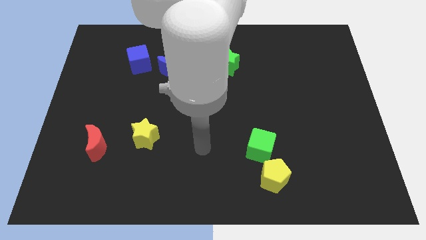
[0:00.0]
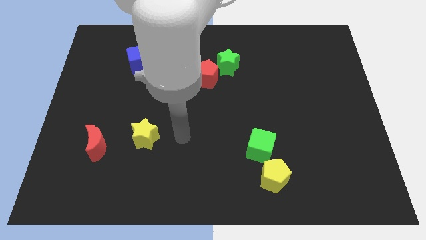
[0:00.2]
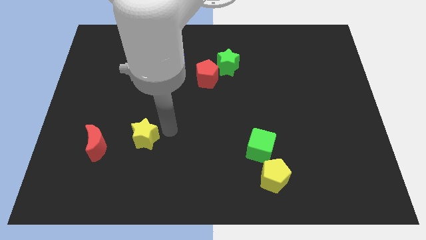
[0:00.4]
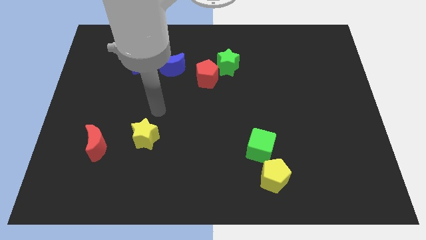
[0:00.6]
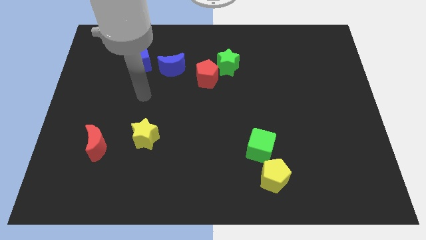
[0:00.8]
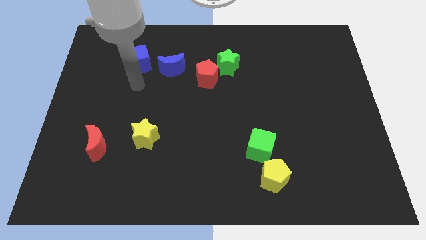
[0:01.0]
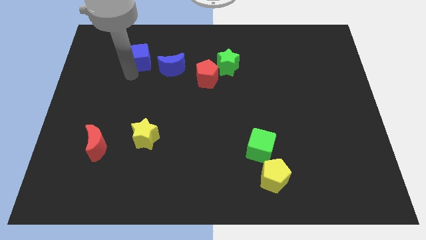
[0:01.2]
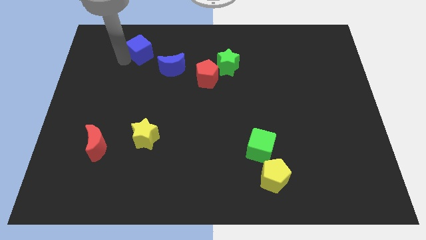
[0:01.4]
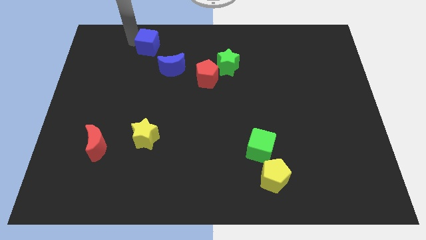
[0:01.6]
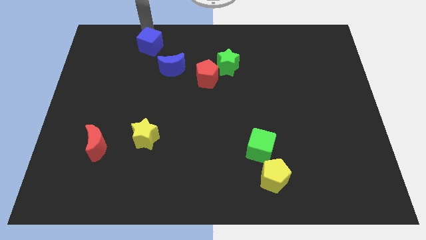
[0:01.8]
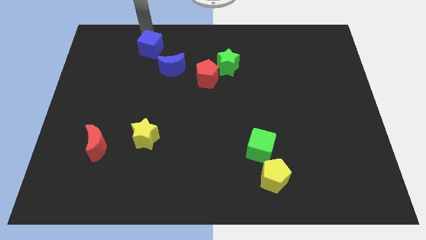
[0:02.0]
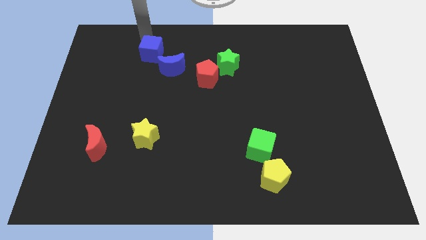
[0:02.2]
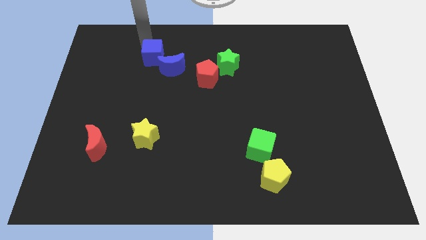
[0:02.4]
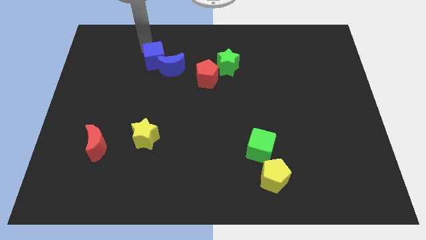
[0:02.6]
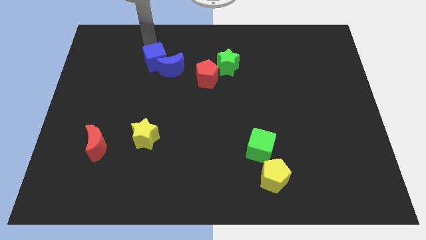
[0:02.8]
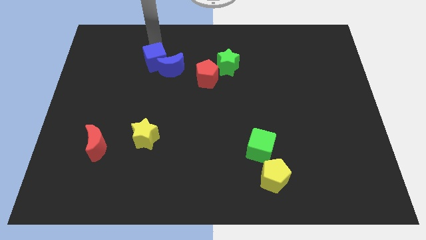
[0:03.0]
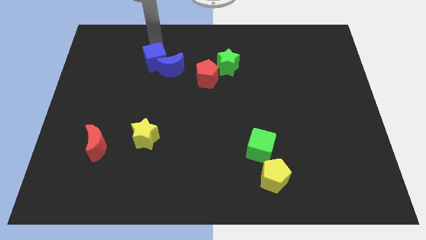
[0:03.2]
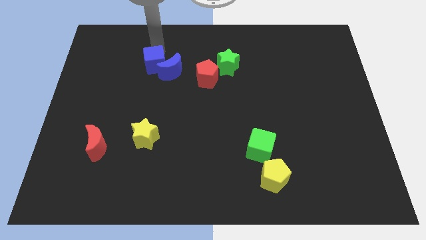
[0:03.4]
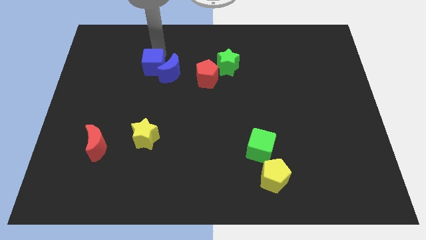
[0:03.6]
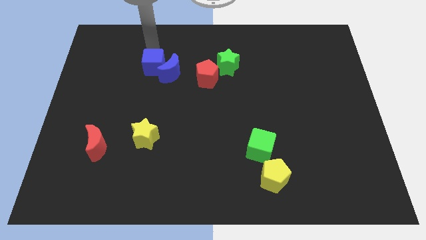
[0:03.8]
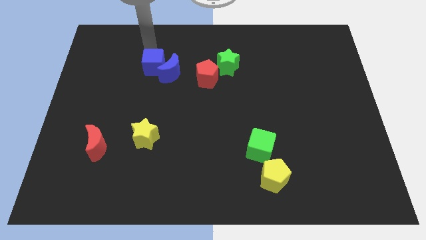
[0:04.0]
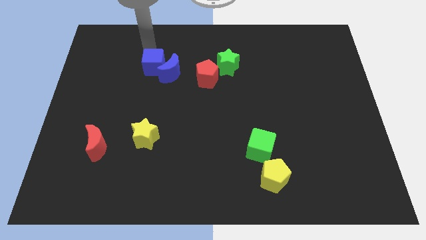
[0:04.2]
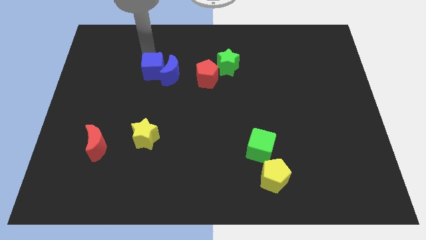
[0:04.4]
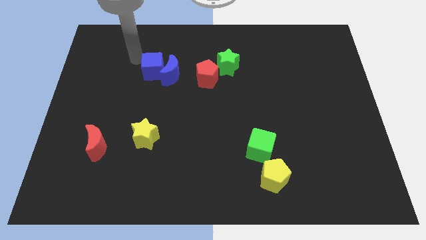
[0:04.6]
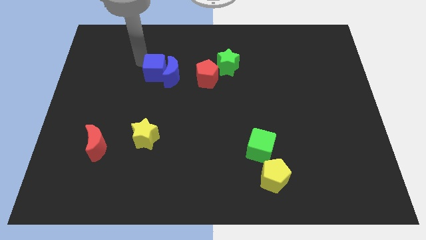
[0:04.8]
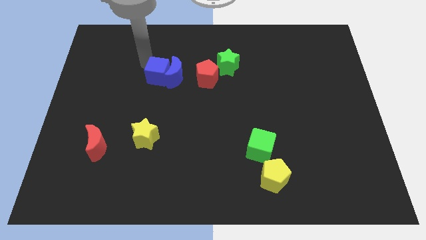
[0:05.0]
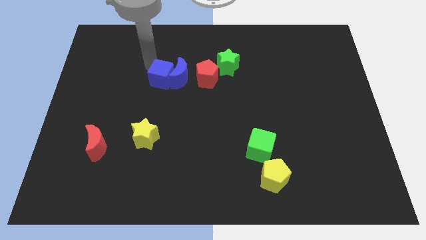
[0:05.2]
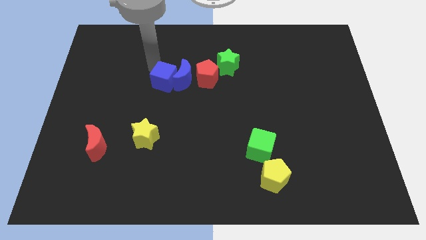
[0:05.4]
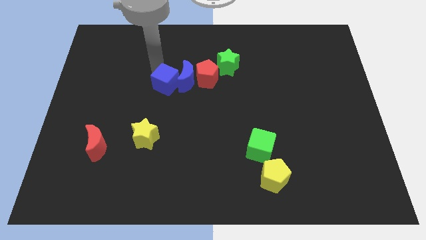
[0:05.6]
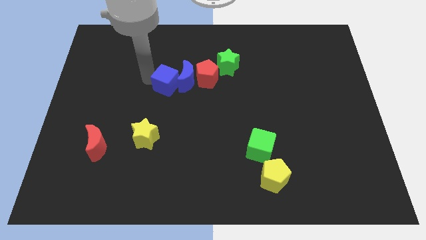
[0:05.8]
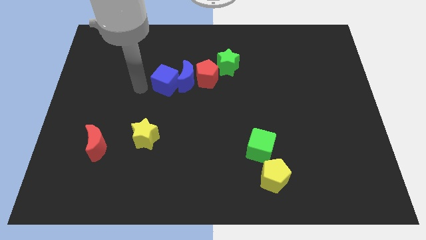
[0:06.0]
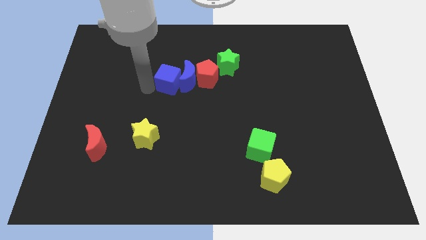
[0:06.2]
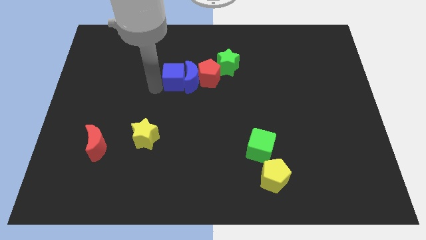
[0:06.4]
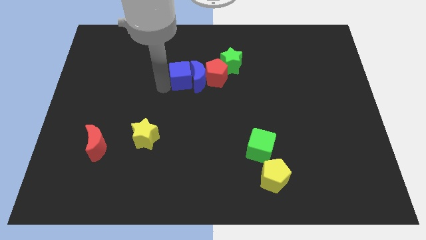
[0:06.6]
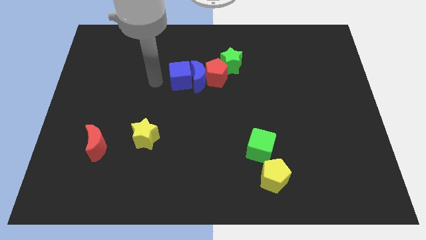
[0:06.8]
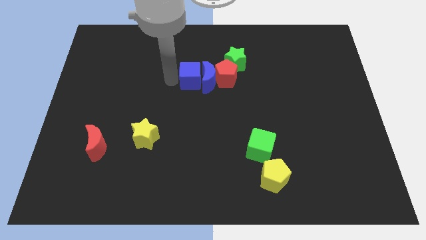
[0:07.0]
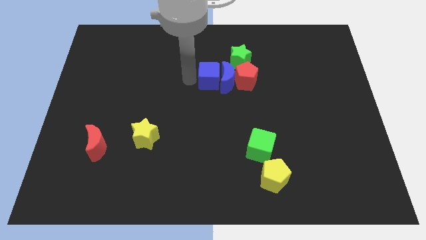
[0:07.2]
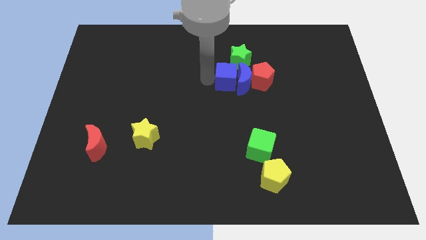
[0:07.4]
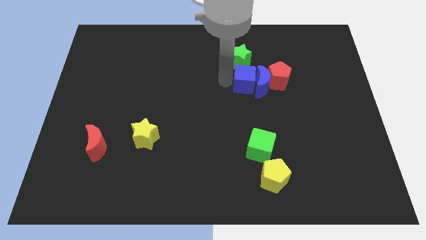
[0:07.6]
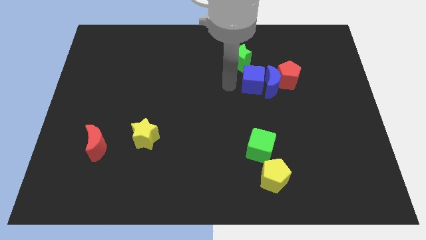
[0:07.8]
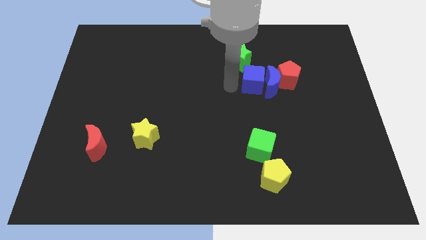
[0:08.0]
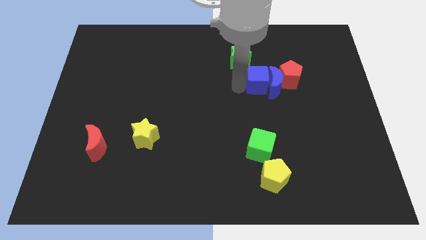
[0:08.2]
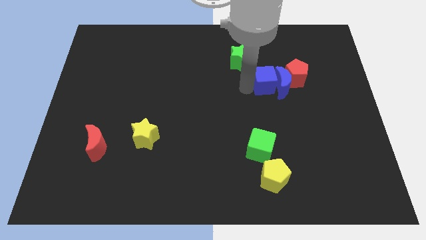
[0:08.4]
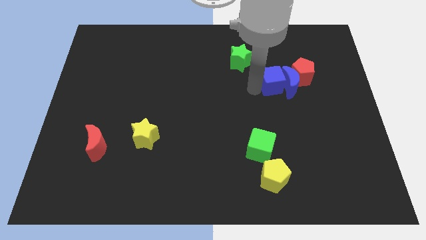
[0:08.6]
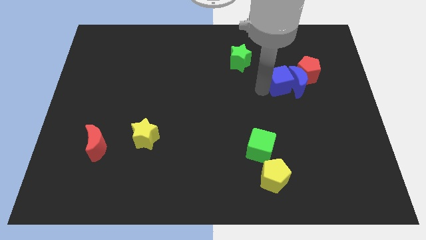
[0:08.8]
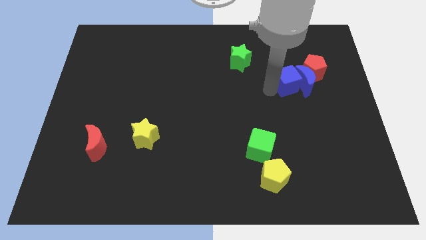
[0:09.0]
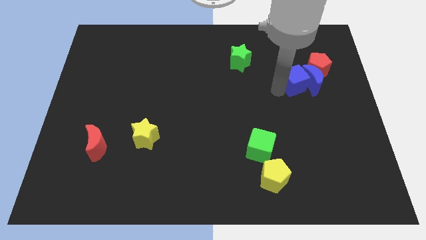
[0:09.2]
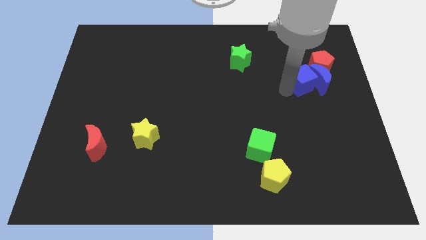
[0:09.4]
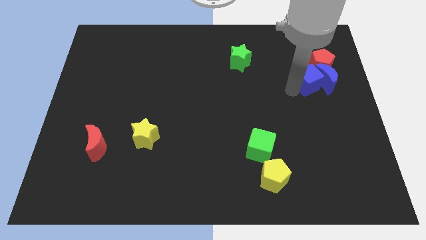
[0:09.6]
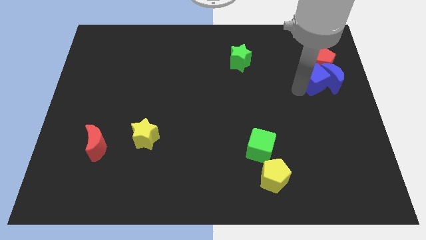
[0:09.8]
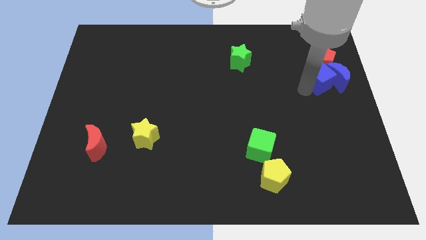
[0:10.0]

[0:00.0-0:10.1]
slide the blue cube close to the red pentagon

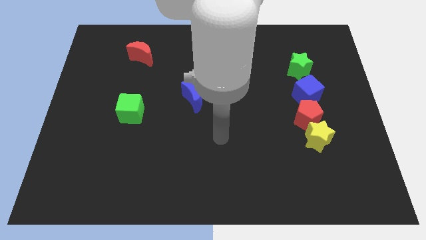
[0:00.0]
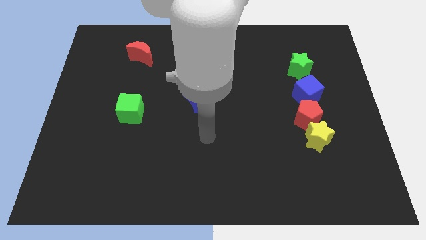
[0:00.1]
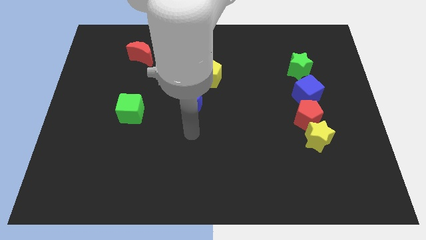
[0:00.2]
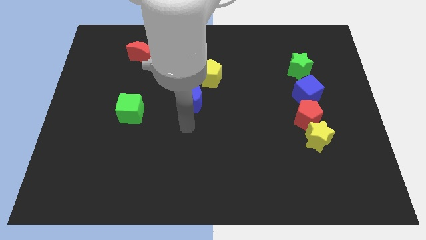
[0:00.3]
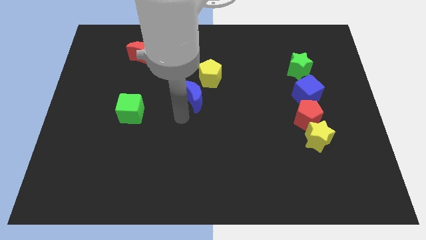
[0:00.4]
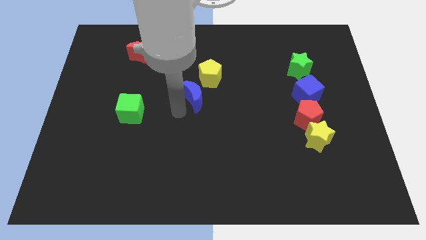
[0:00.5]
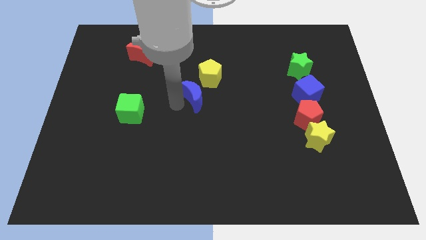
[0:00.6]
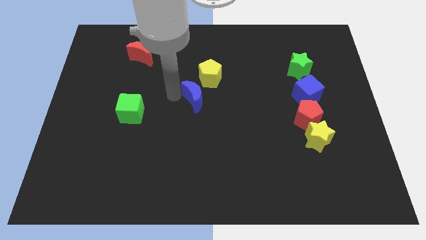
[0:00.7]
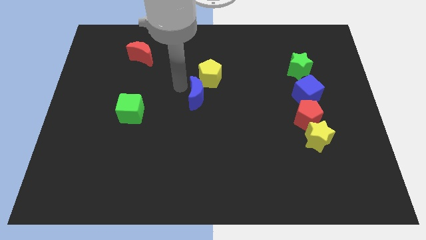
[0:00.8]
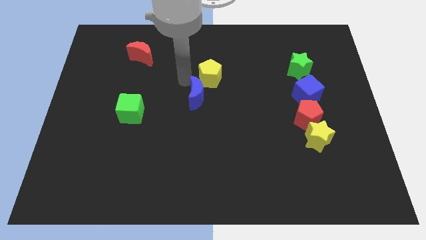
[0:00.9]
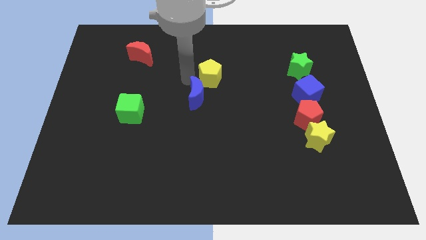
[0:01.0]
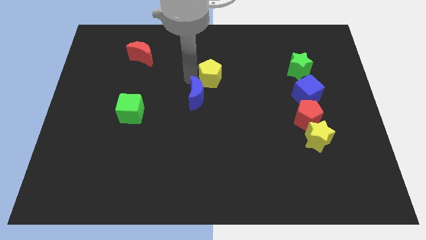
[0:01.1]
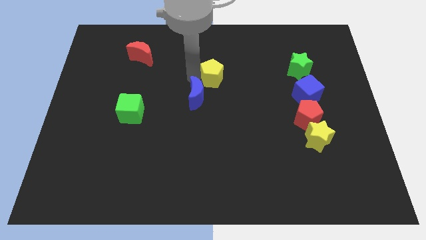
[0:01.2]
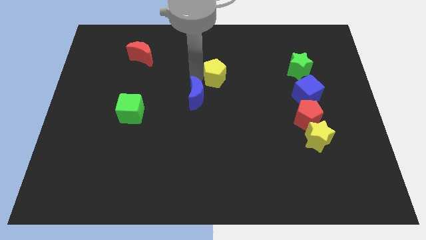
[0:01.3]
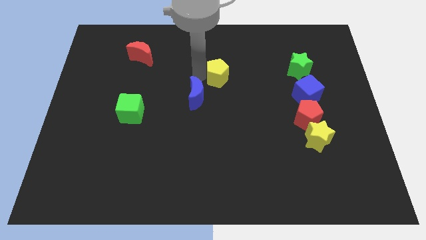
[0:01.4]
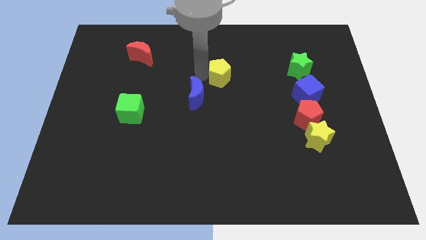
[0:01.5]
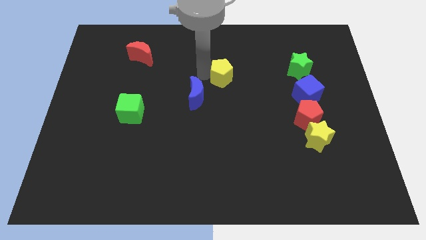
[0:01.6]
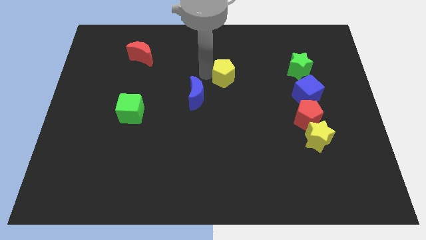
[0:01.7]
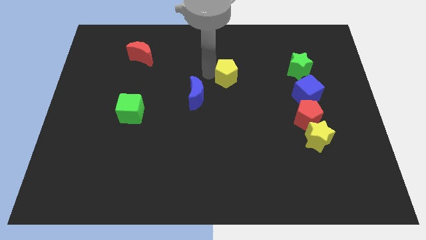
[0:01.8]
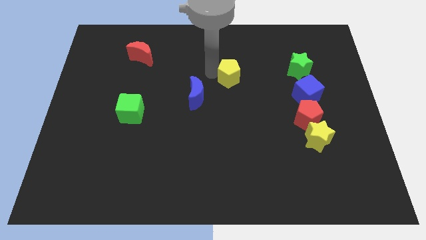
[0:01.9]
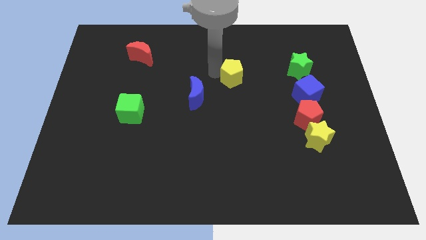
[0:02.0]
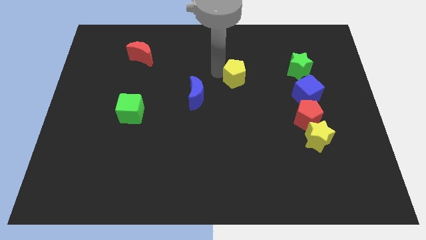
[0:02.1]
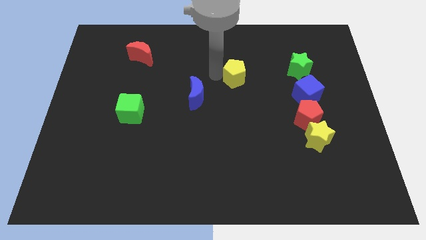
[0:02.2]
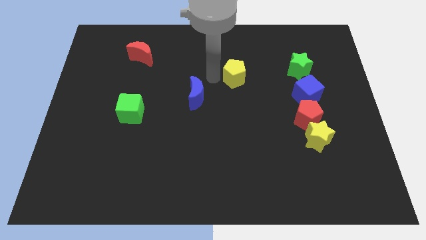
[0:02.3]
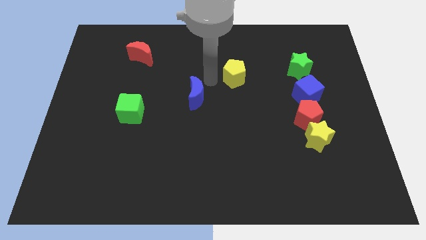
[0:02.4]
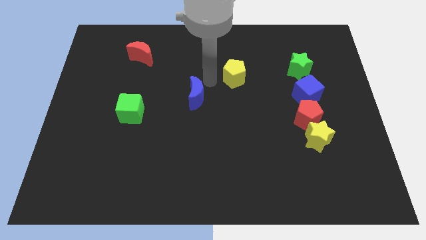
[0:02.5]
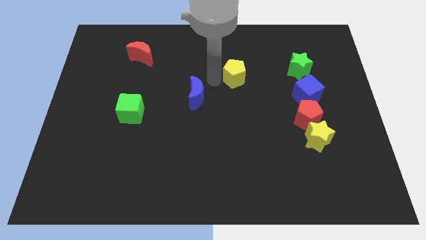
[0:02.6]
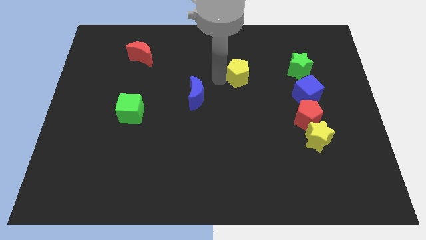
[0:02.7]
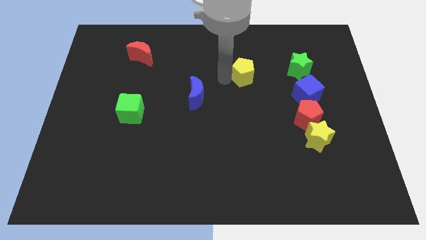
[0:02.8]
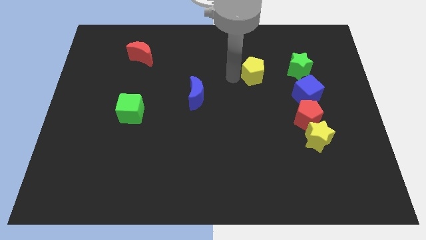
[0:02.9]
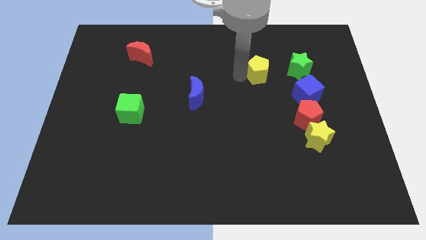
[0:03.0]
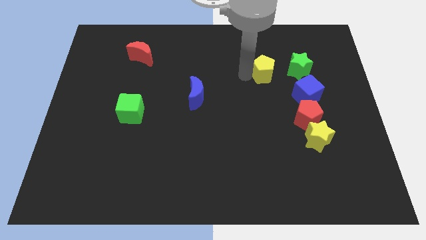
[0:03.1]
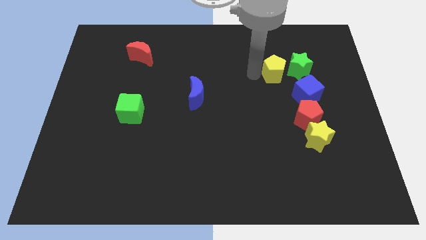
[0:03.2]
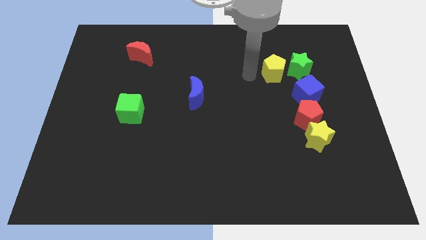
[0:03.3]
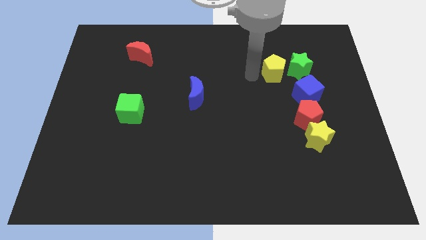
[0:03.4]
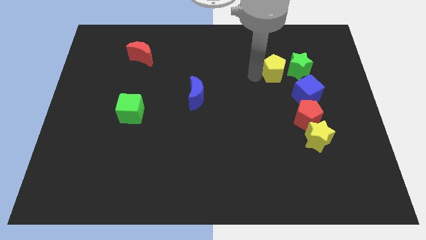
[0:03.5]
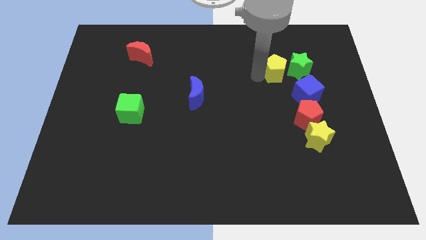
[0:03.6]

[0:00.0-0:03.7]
slide the yellow pentagon to the green star
